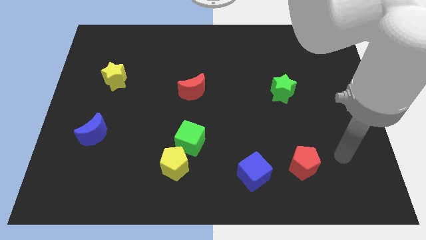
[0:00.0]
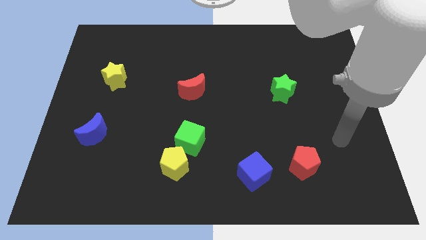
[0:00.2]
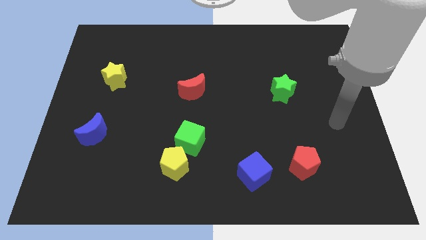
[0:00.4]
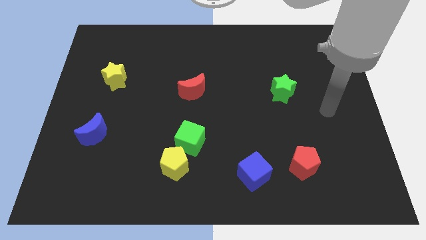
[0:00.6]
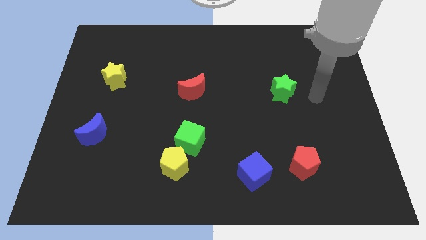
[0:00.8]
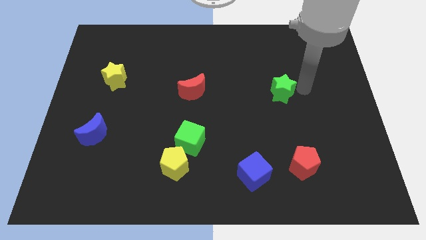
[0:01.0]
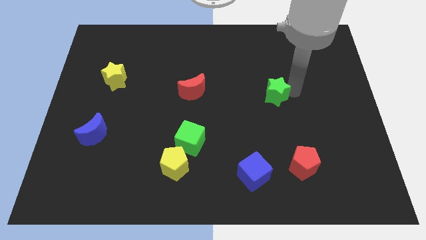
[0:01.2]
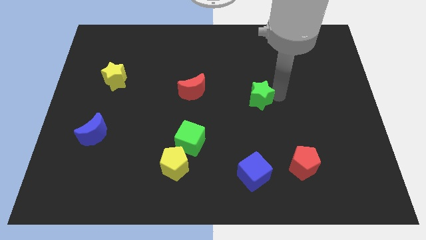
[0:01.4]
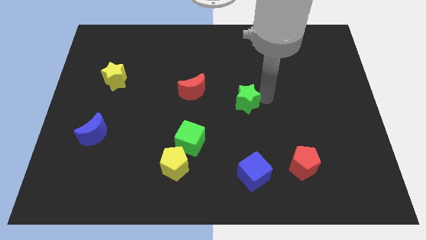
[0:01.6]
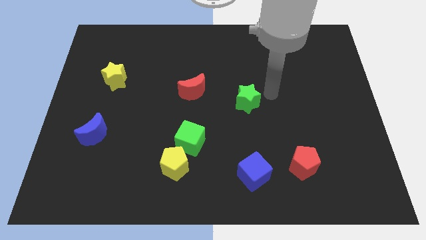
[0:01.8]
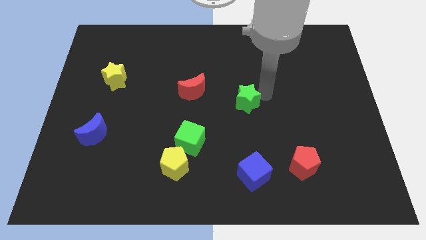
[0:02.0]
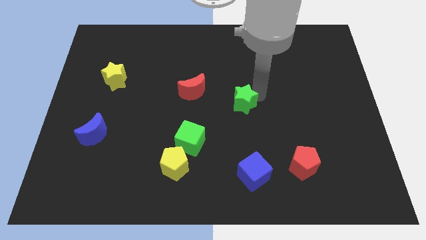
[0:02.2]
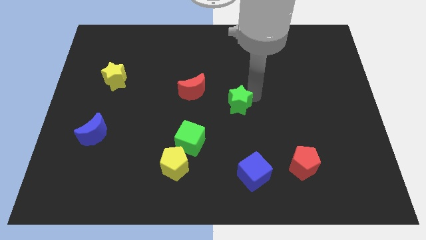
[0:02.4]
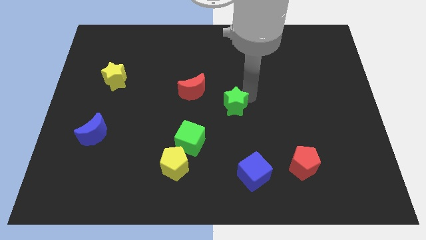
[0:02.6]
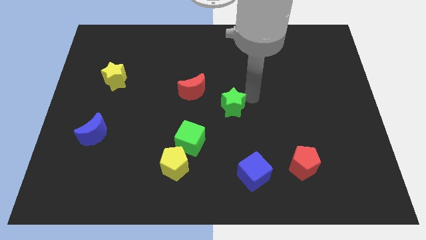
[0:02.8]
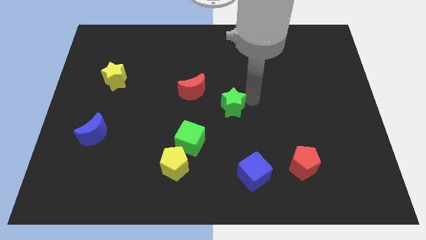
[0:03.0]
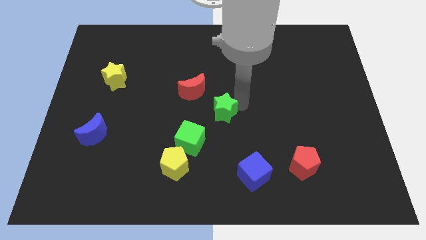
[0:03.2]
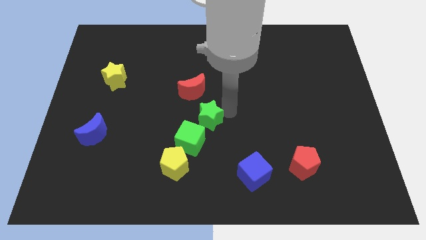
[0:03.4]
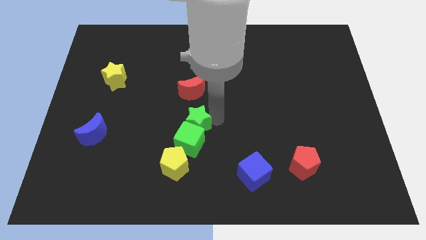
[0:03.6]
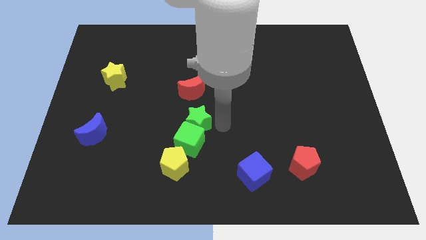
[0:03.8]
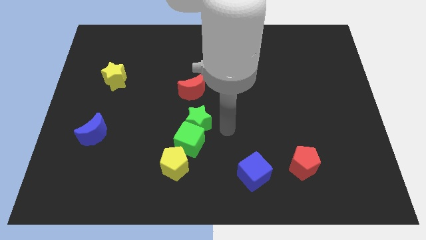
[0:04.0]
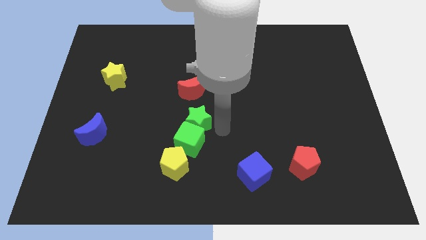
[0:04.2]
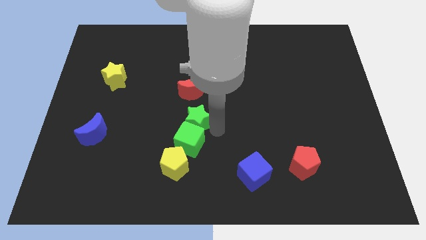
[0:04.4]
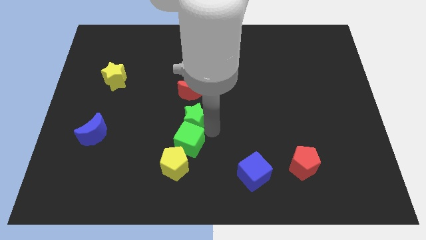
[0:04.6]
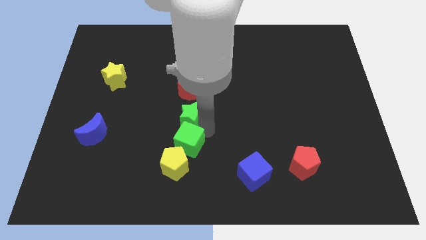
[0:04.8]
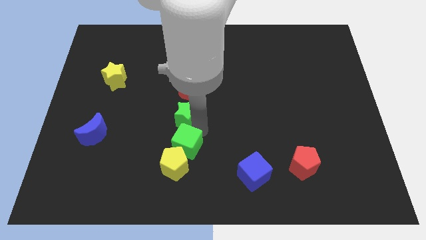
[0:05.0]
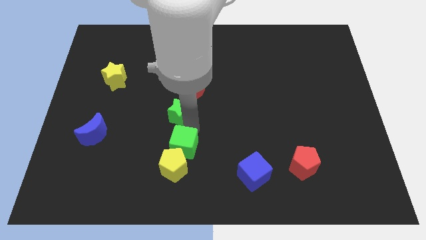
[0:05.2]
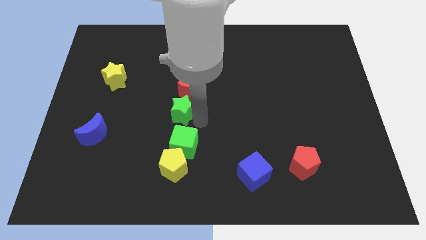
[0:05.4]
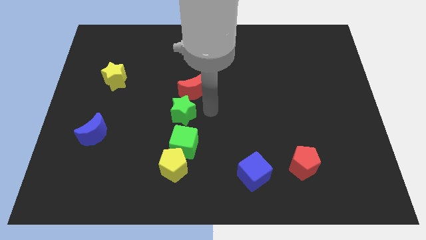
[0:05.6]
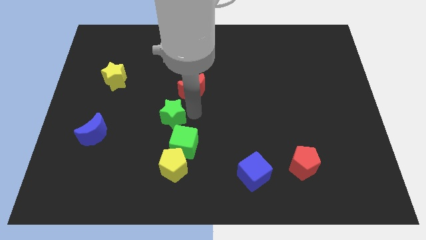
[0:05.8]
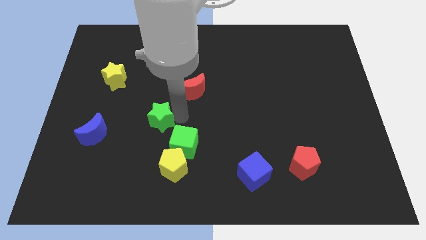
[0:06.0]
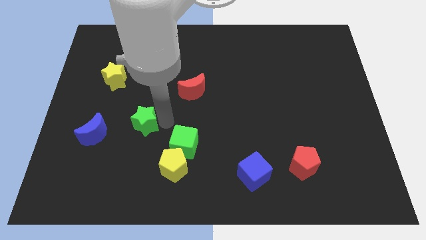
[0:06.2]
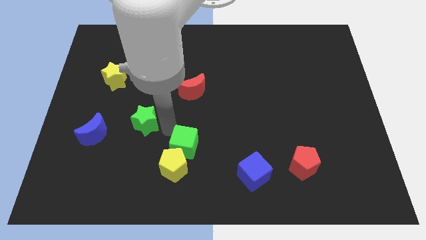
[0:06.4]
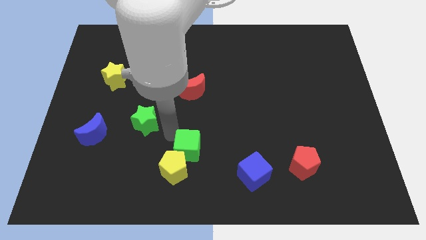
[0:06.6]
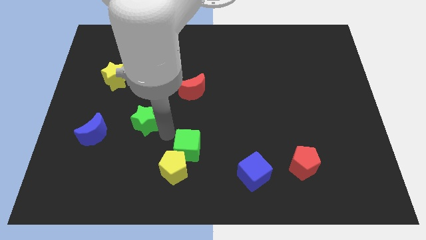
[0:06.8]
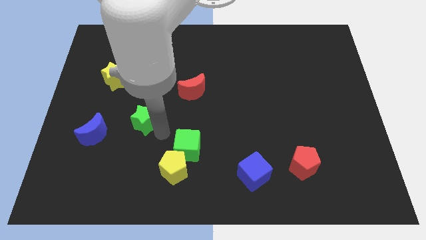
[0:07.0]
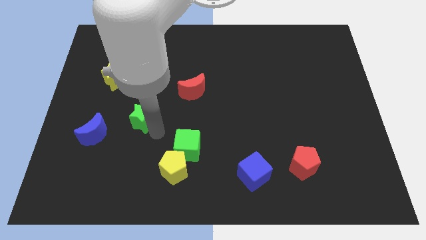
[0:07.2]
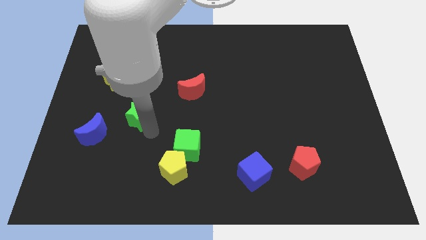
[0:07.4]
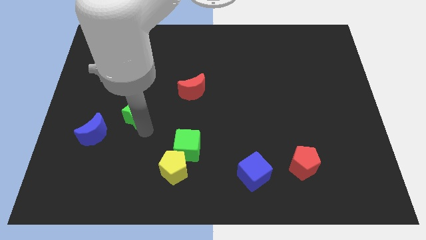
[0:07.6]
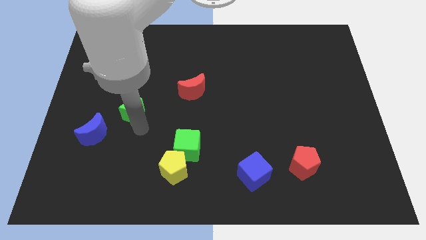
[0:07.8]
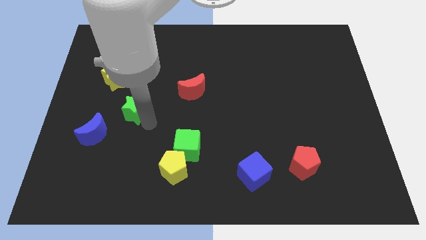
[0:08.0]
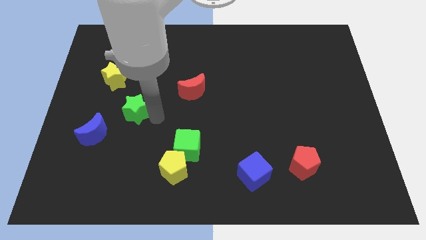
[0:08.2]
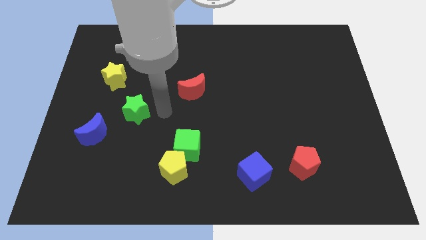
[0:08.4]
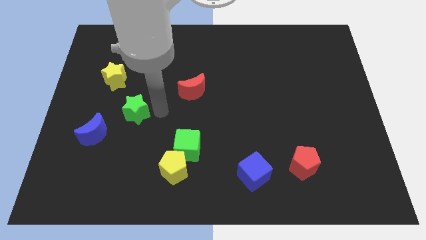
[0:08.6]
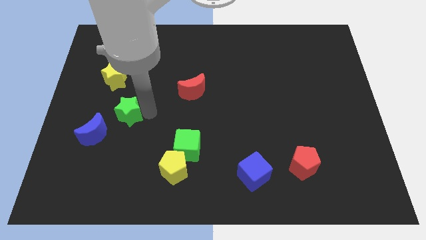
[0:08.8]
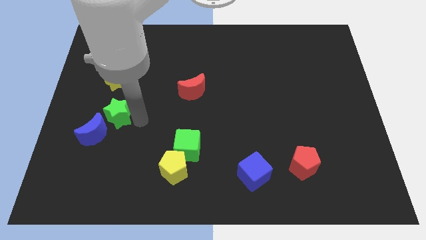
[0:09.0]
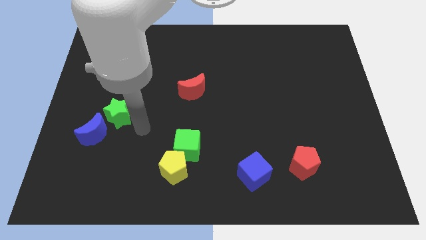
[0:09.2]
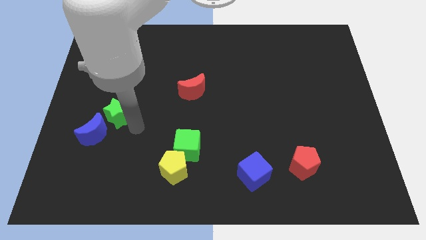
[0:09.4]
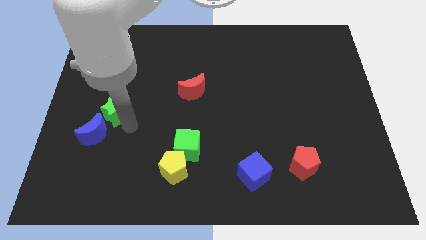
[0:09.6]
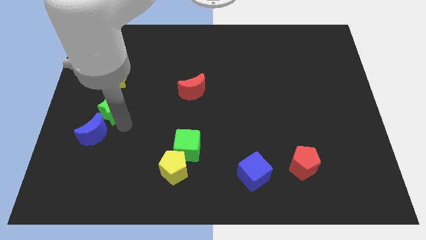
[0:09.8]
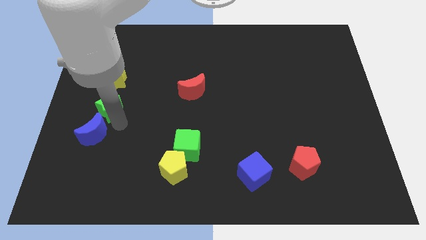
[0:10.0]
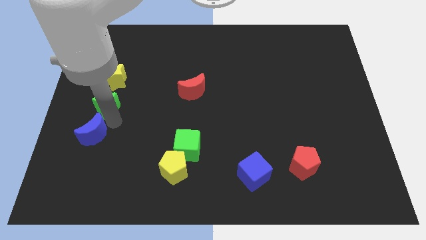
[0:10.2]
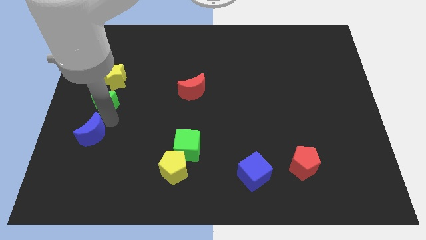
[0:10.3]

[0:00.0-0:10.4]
slide the green star to the left side

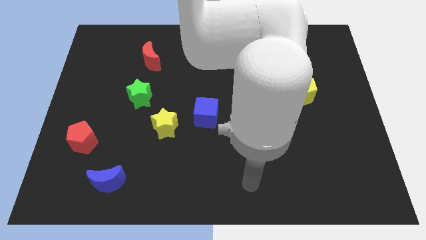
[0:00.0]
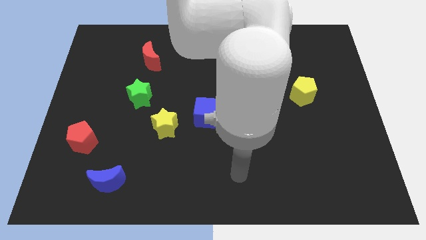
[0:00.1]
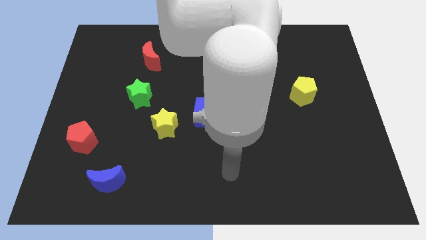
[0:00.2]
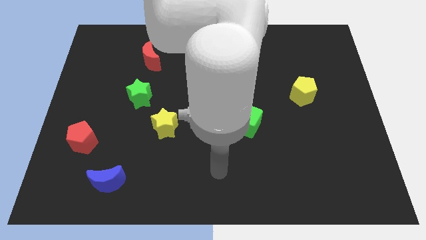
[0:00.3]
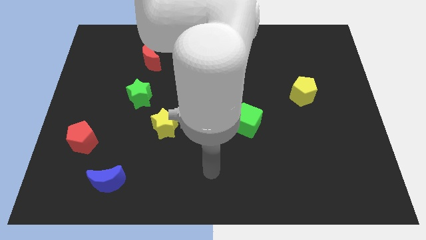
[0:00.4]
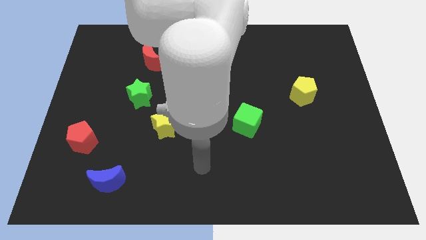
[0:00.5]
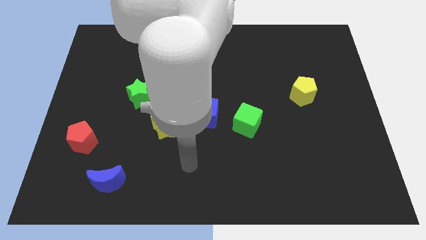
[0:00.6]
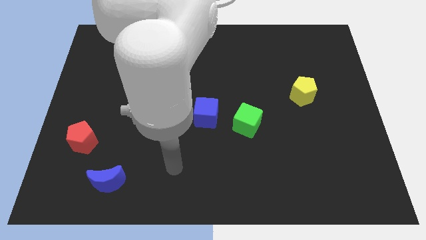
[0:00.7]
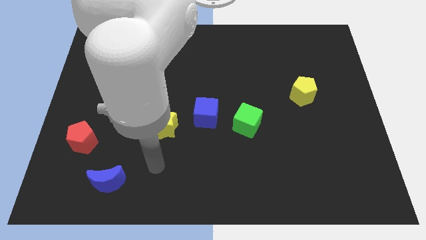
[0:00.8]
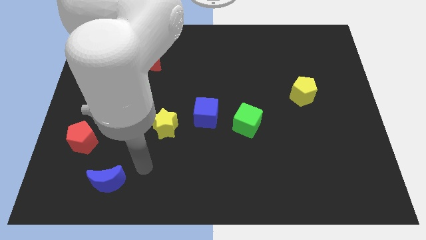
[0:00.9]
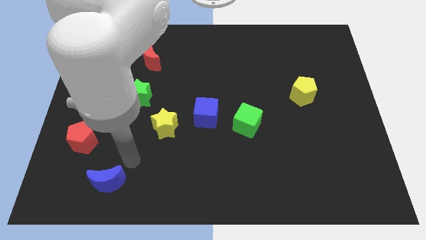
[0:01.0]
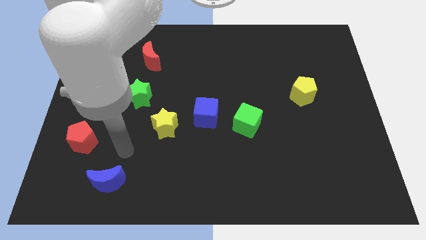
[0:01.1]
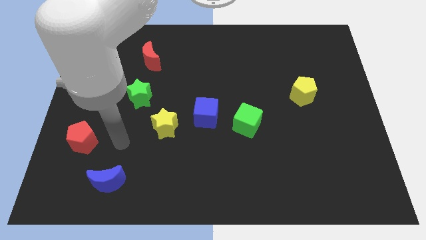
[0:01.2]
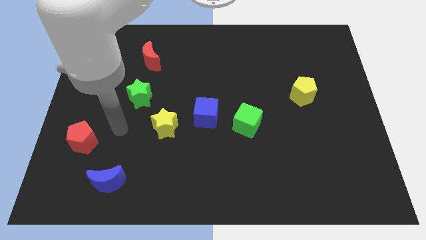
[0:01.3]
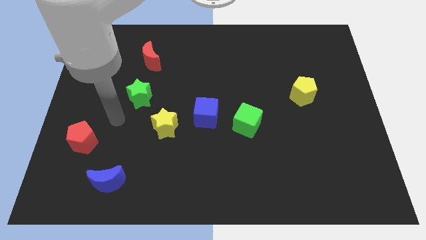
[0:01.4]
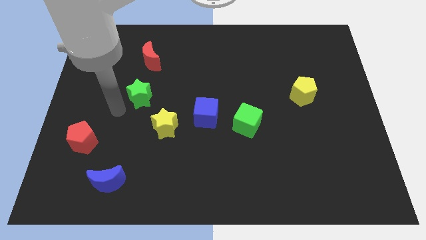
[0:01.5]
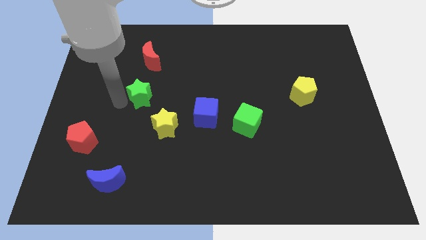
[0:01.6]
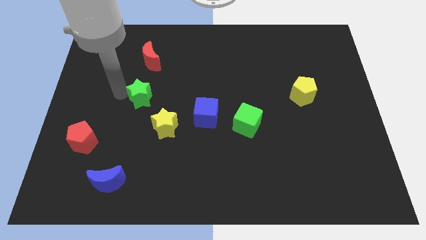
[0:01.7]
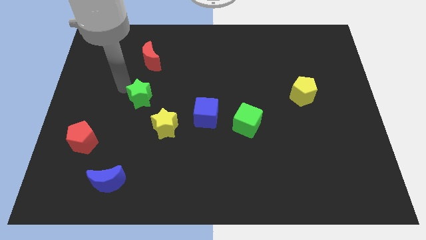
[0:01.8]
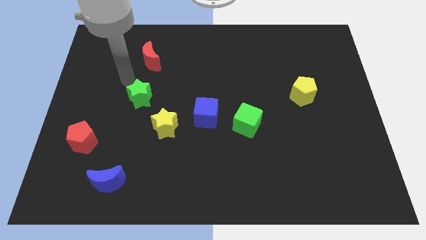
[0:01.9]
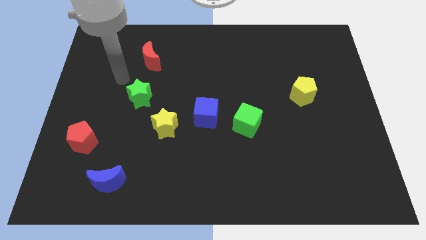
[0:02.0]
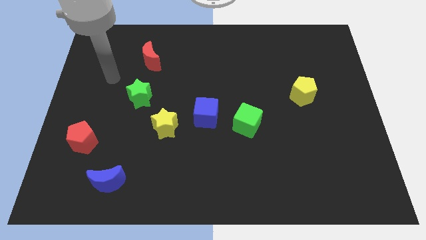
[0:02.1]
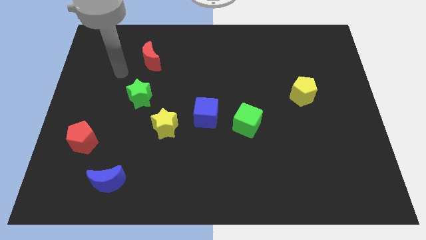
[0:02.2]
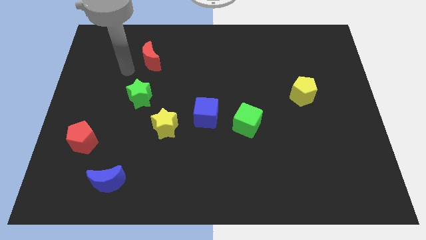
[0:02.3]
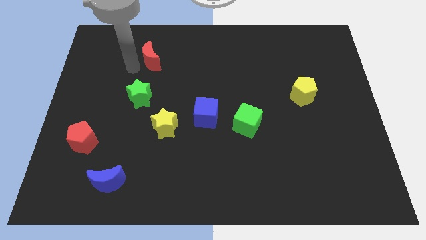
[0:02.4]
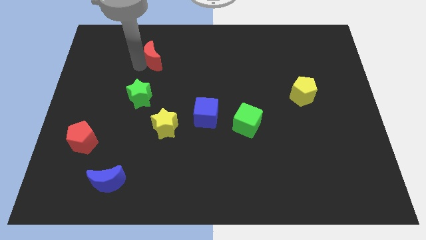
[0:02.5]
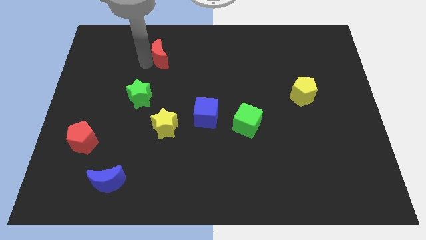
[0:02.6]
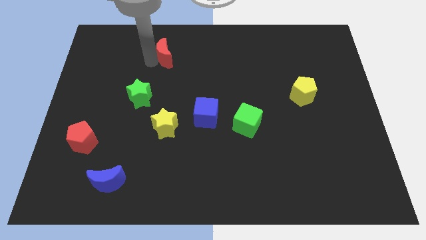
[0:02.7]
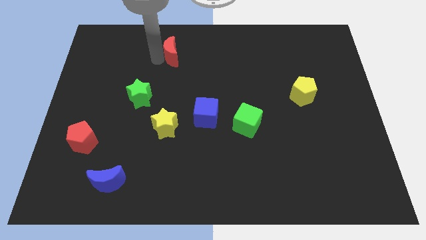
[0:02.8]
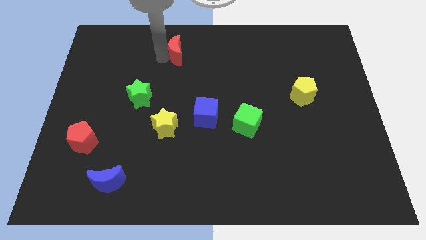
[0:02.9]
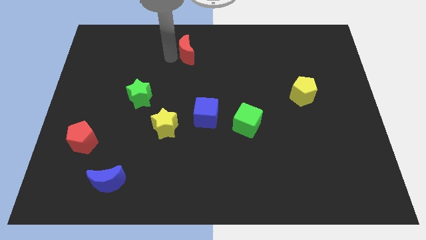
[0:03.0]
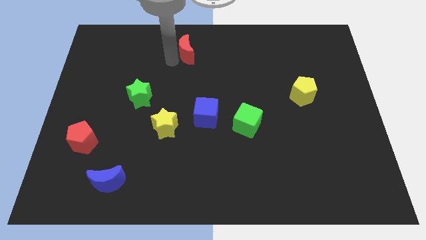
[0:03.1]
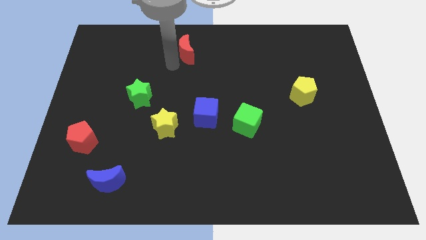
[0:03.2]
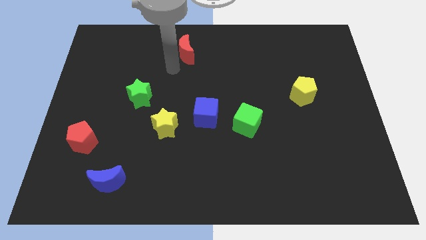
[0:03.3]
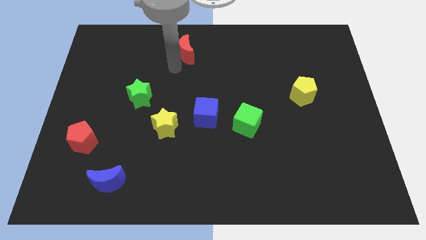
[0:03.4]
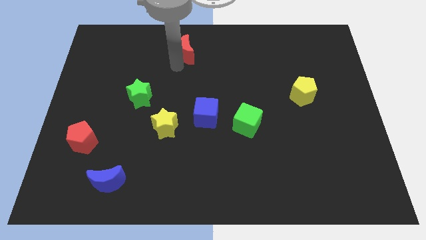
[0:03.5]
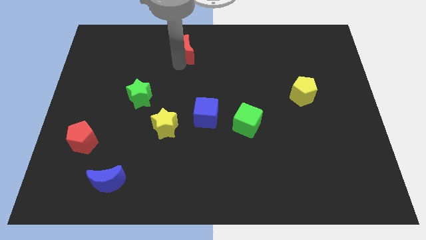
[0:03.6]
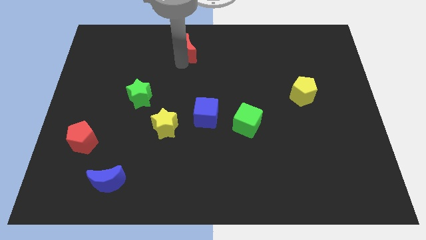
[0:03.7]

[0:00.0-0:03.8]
slide the red moon to the top side
